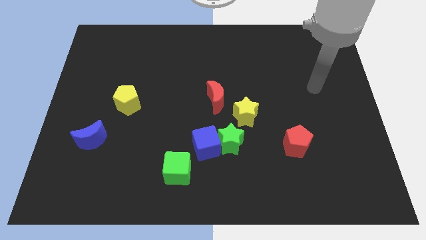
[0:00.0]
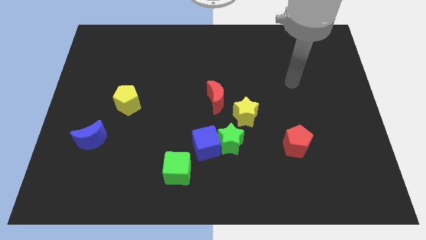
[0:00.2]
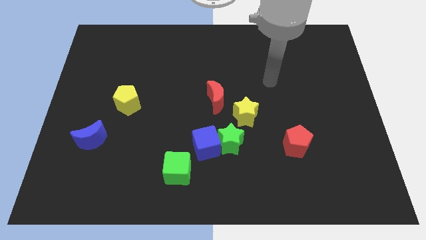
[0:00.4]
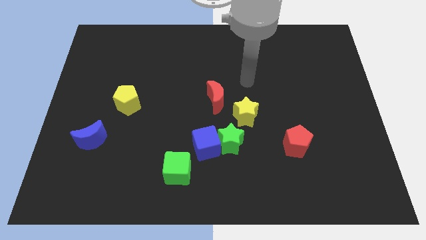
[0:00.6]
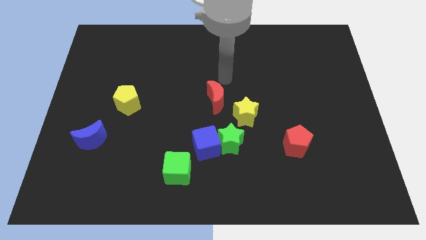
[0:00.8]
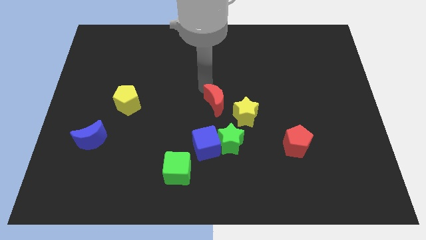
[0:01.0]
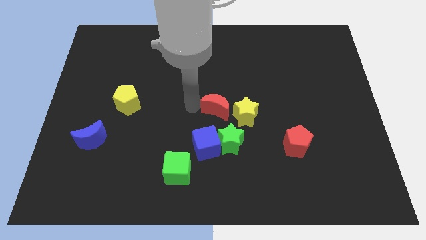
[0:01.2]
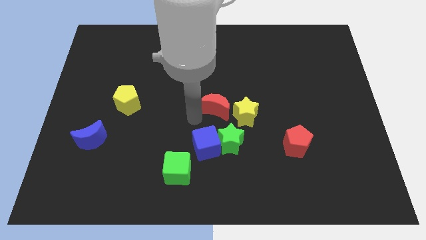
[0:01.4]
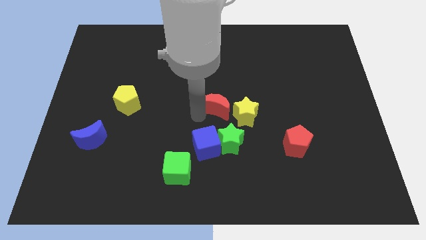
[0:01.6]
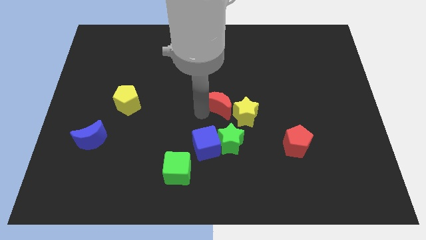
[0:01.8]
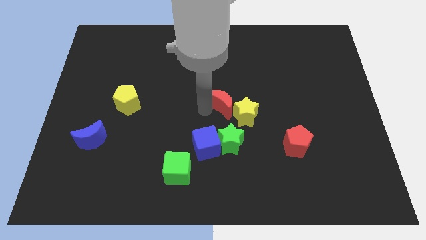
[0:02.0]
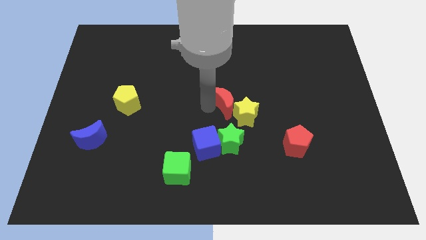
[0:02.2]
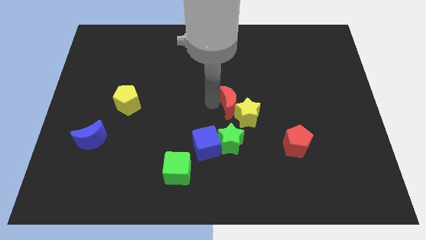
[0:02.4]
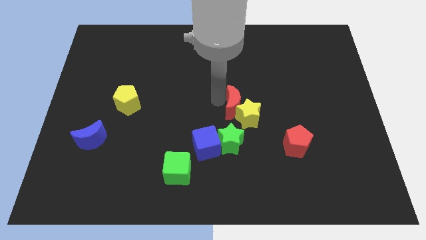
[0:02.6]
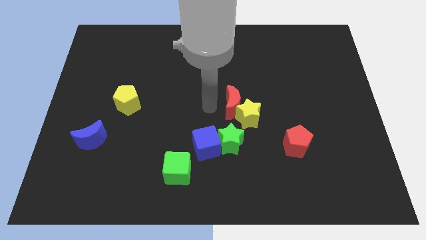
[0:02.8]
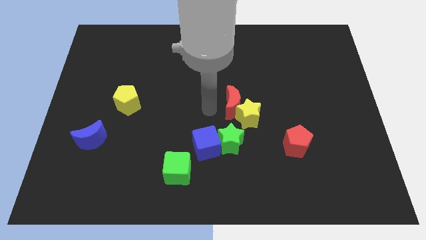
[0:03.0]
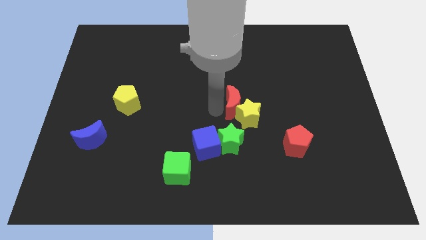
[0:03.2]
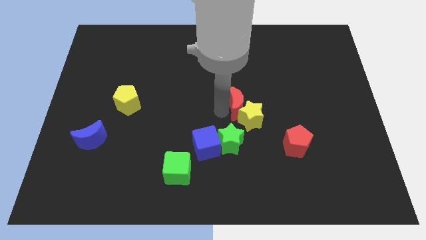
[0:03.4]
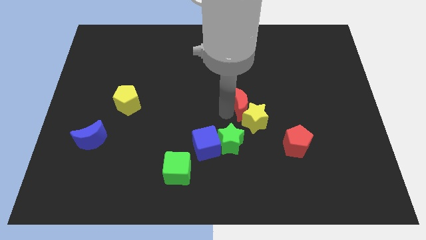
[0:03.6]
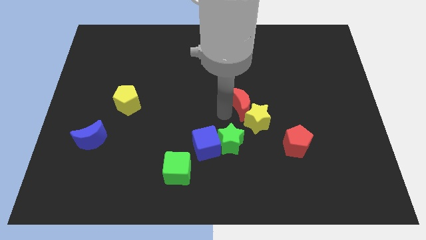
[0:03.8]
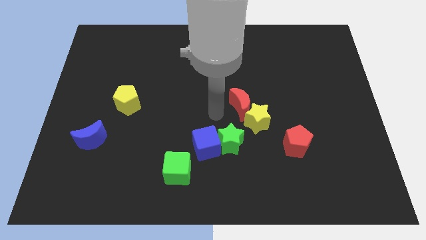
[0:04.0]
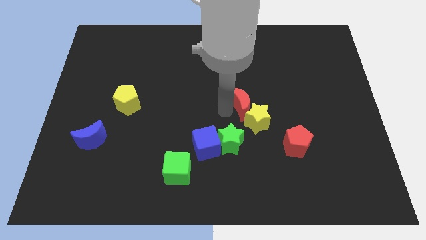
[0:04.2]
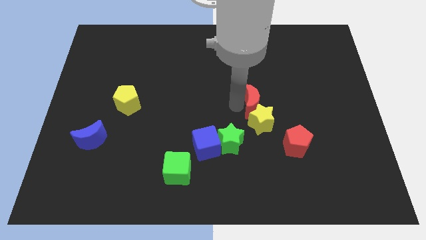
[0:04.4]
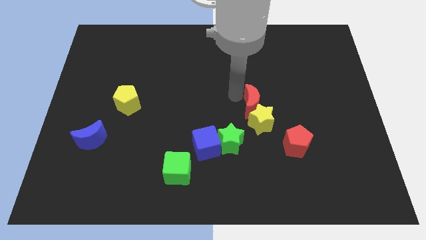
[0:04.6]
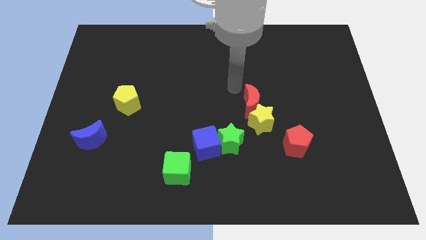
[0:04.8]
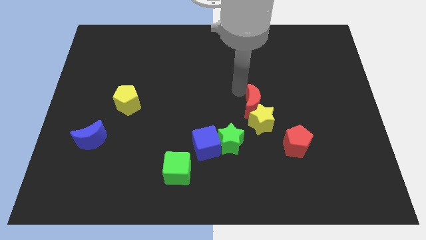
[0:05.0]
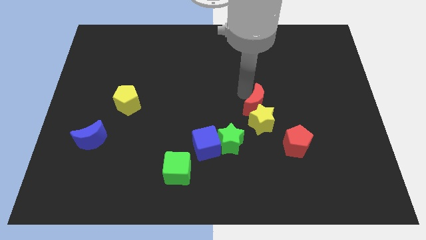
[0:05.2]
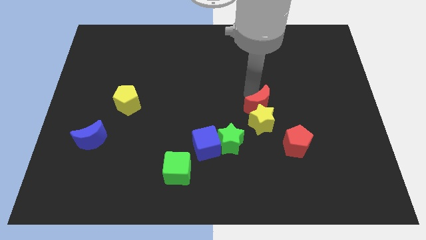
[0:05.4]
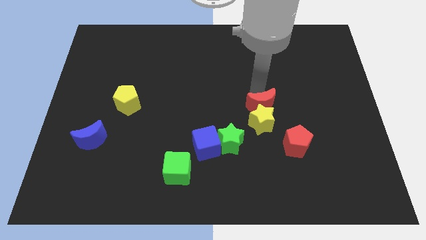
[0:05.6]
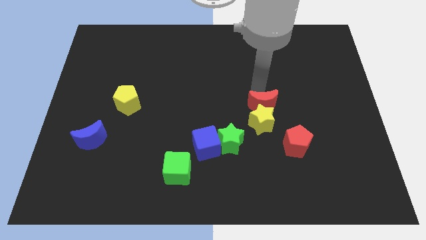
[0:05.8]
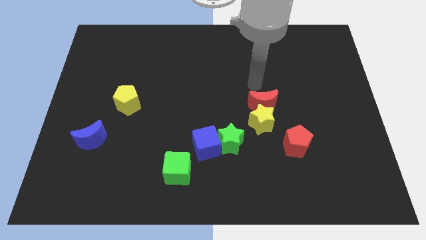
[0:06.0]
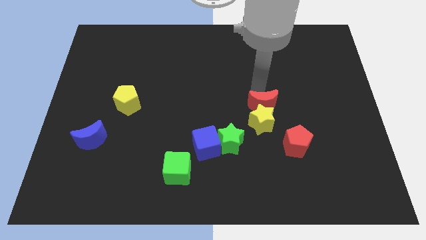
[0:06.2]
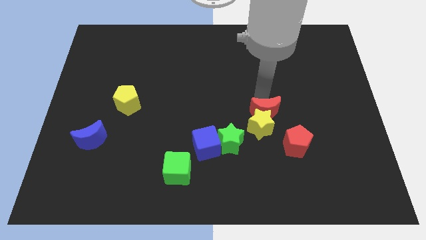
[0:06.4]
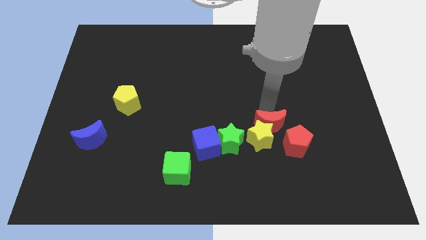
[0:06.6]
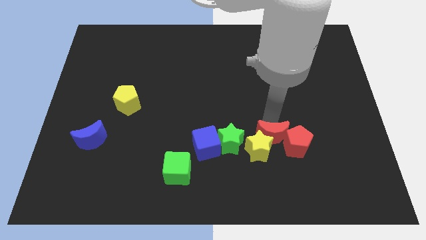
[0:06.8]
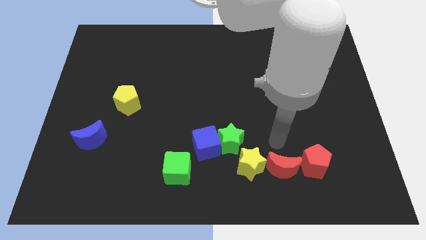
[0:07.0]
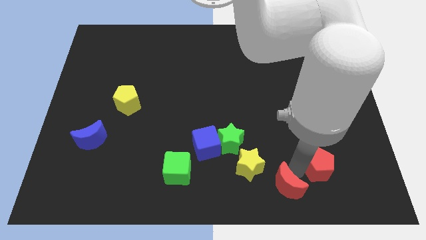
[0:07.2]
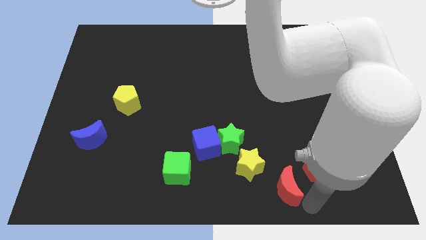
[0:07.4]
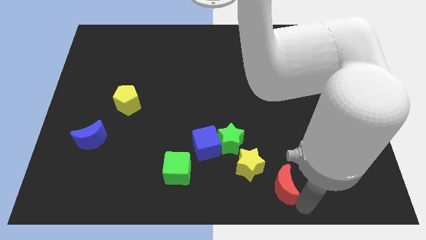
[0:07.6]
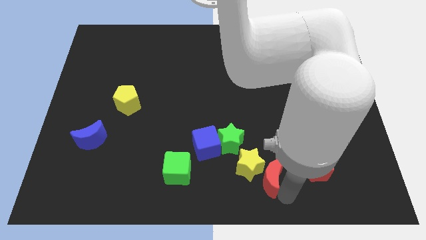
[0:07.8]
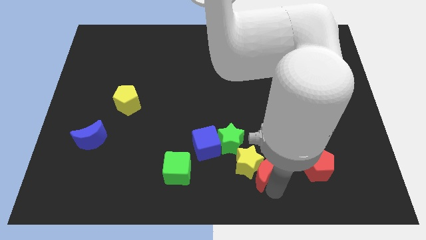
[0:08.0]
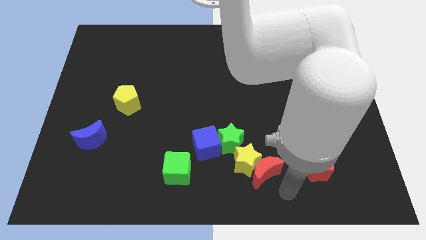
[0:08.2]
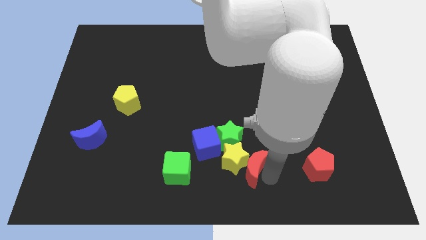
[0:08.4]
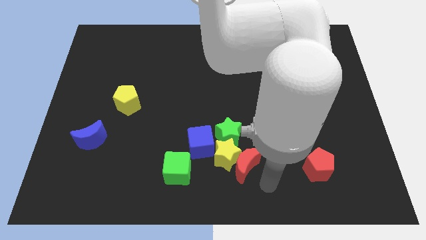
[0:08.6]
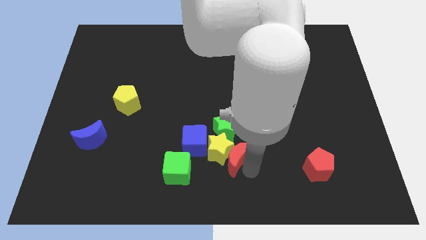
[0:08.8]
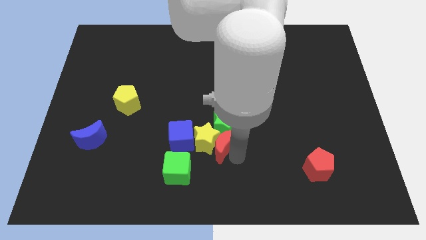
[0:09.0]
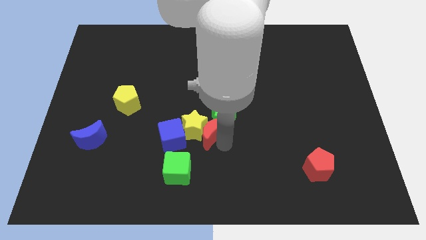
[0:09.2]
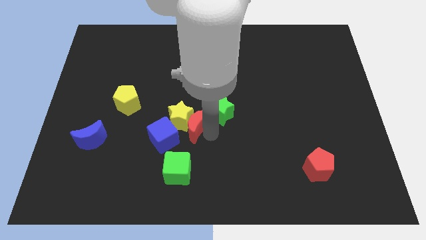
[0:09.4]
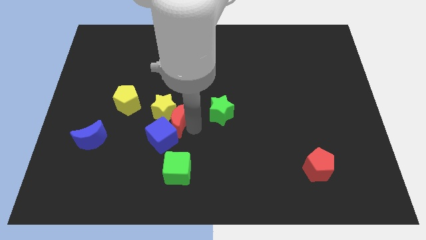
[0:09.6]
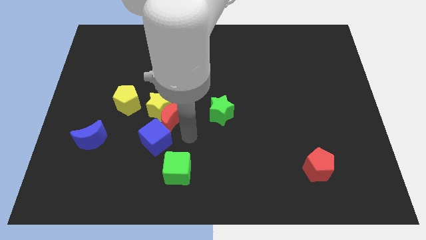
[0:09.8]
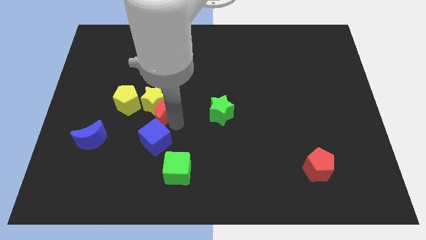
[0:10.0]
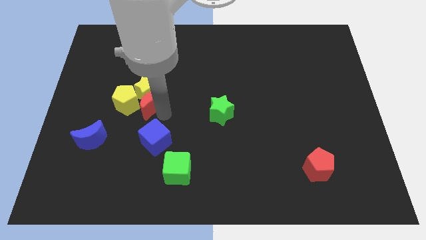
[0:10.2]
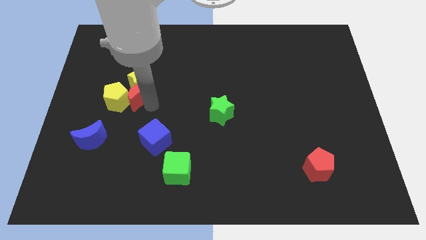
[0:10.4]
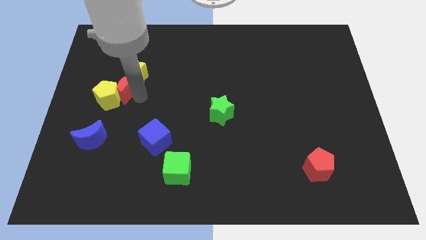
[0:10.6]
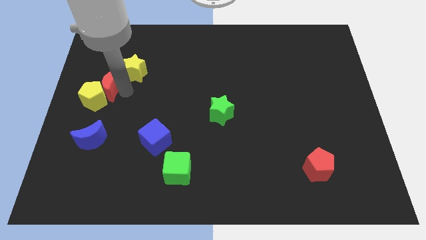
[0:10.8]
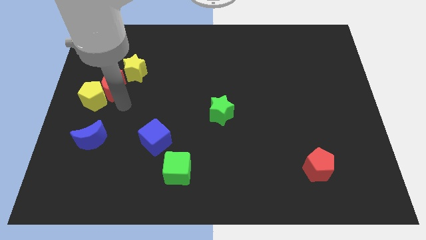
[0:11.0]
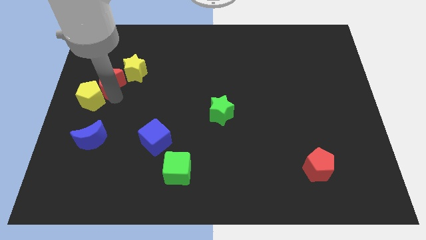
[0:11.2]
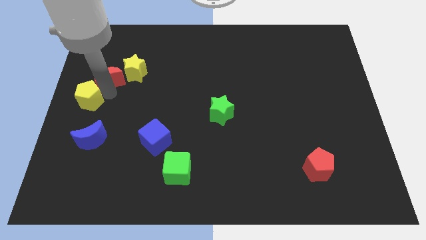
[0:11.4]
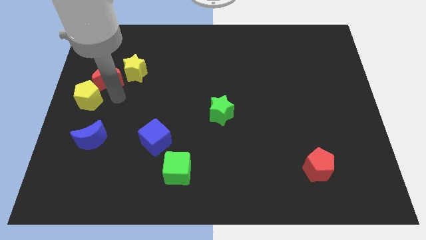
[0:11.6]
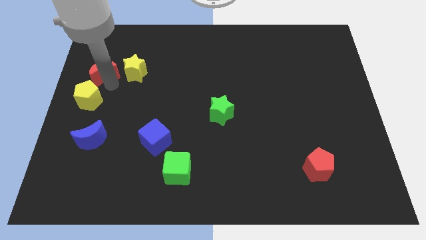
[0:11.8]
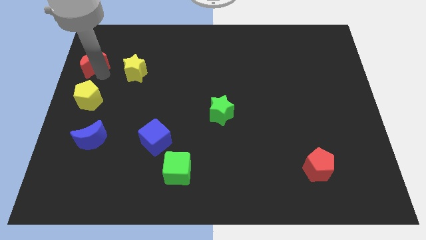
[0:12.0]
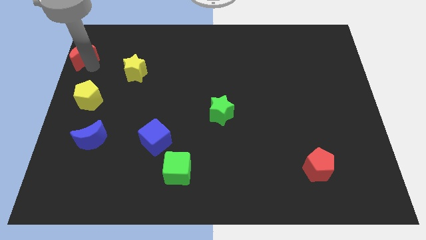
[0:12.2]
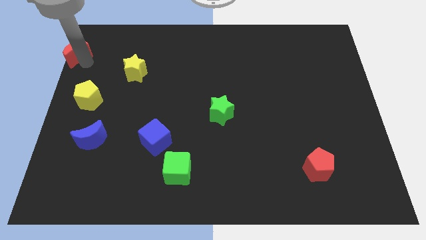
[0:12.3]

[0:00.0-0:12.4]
push the red moon to the top left corner
